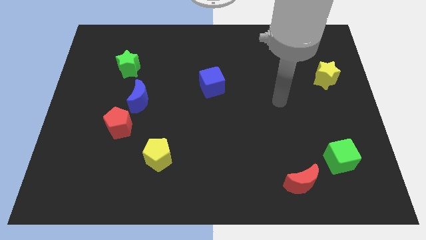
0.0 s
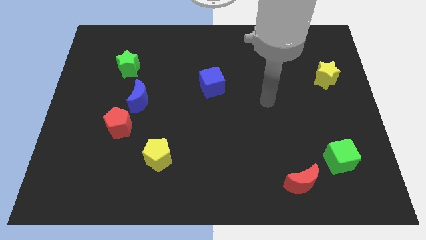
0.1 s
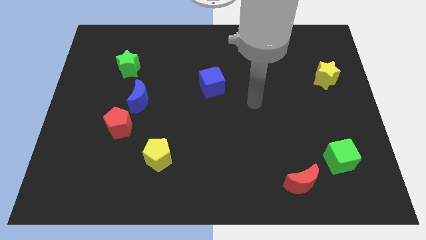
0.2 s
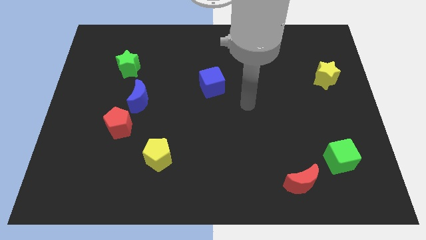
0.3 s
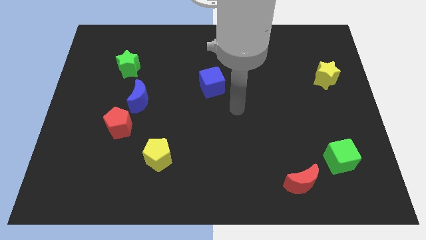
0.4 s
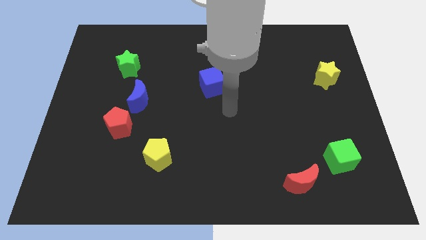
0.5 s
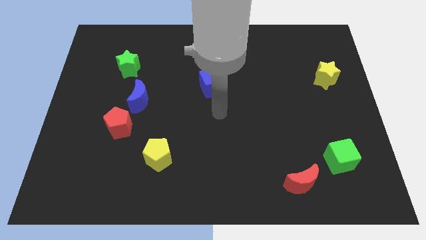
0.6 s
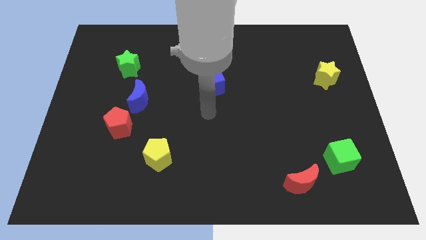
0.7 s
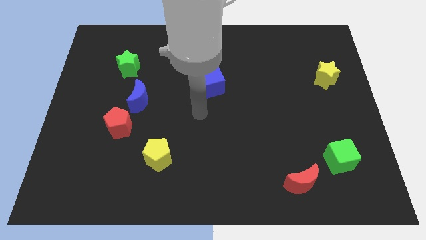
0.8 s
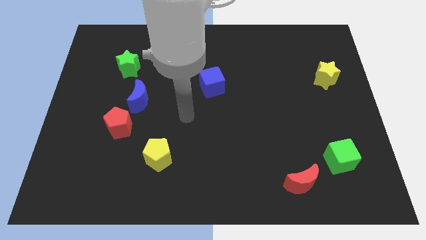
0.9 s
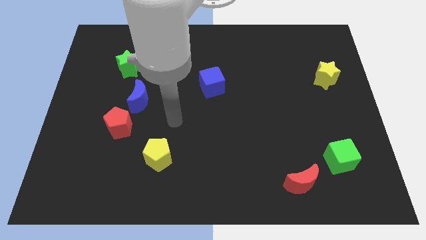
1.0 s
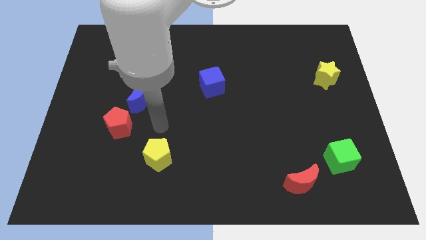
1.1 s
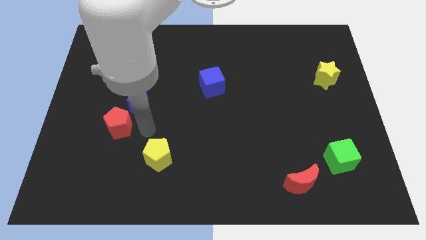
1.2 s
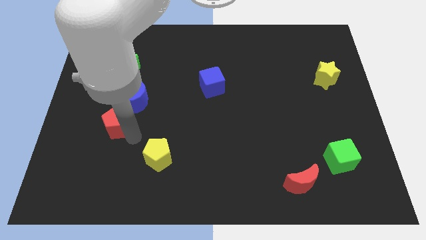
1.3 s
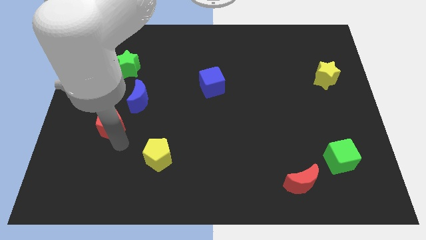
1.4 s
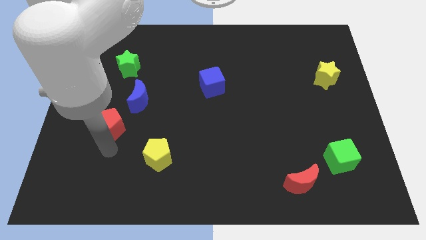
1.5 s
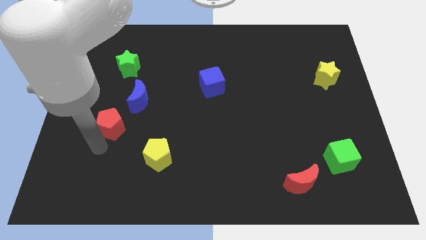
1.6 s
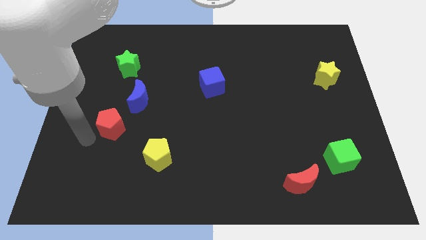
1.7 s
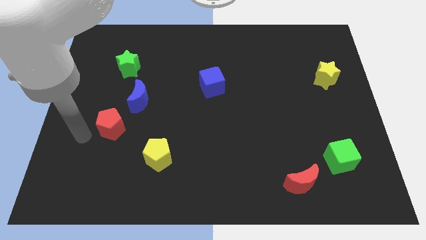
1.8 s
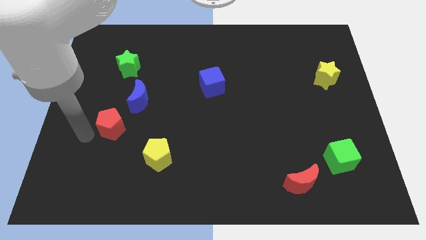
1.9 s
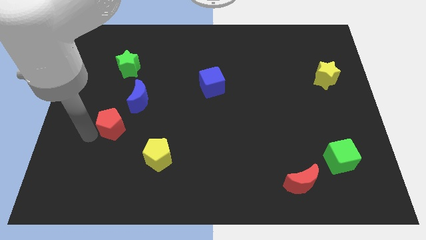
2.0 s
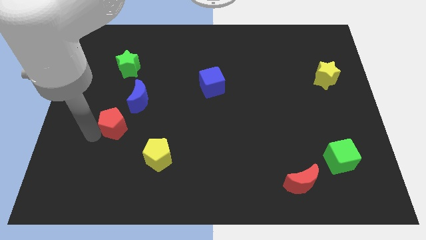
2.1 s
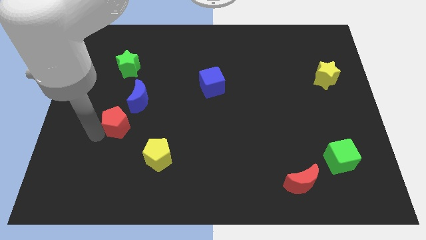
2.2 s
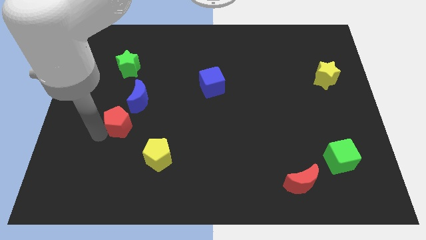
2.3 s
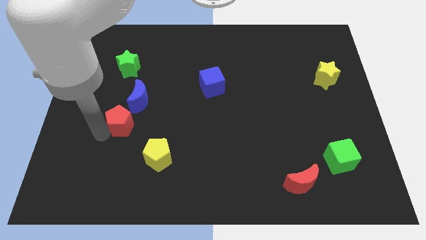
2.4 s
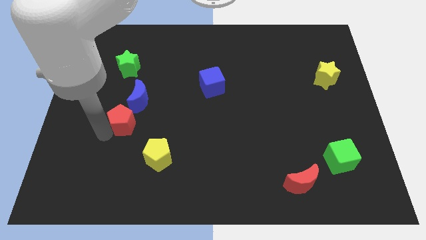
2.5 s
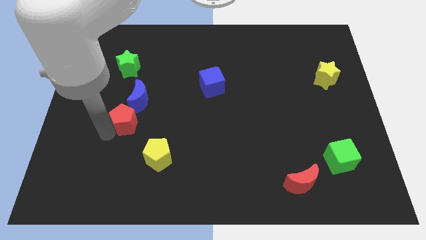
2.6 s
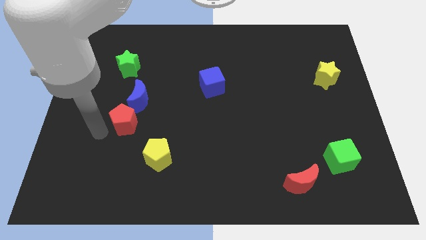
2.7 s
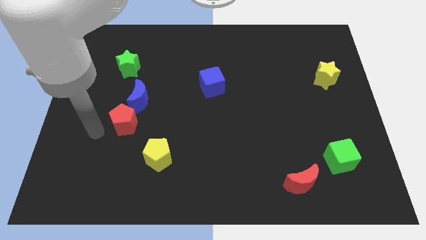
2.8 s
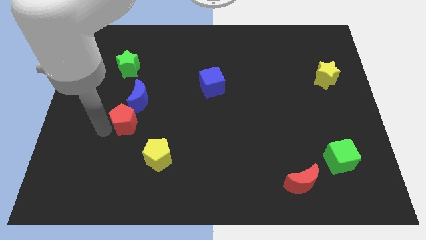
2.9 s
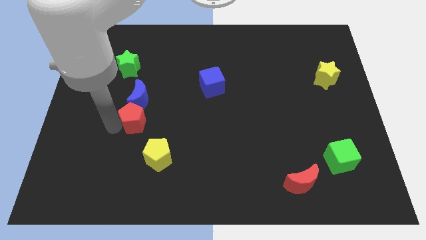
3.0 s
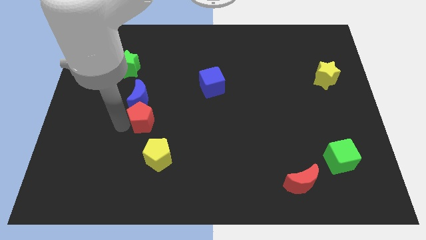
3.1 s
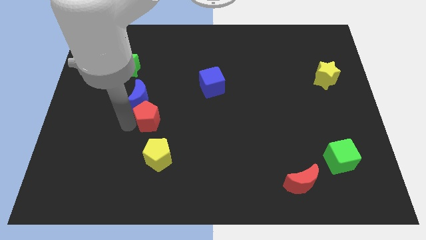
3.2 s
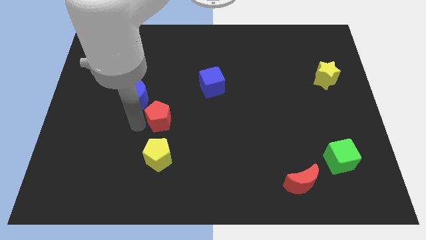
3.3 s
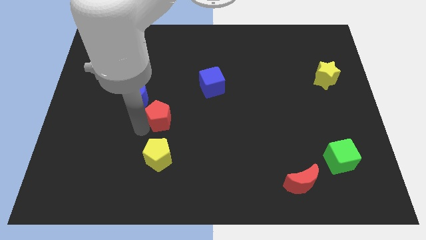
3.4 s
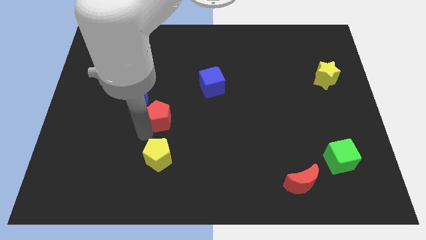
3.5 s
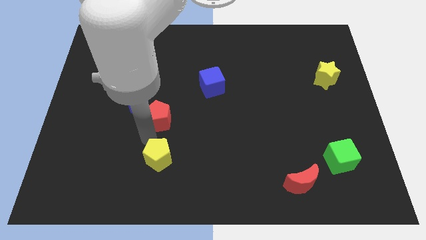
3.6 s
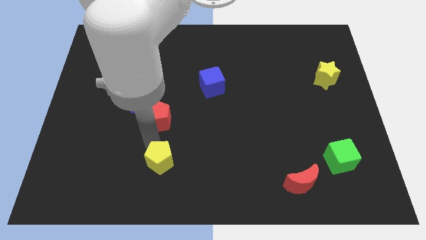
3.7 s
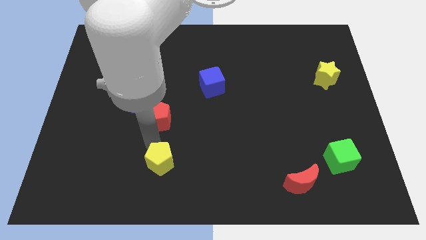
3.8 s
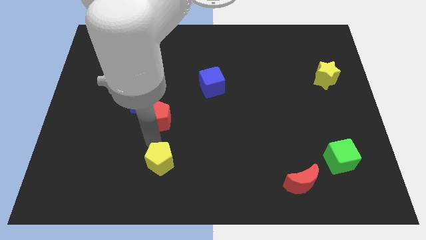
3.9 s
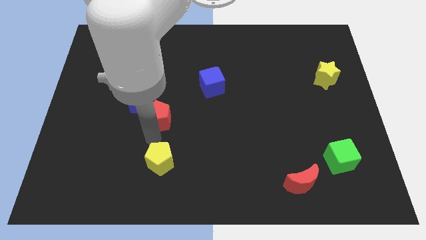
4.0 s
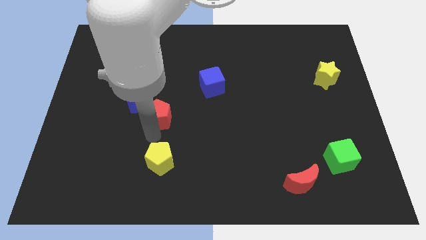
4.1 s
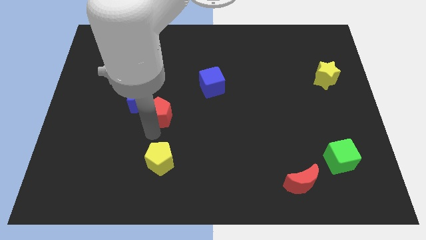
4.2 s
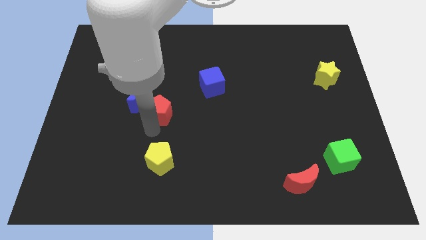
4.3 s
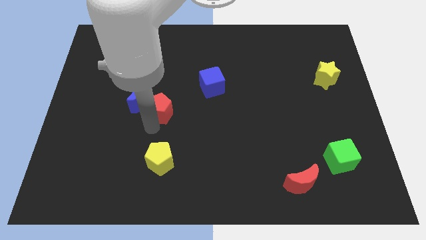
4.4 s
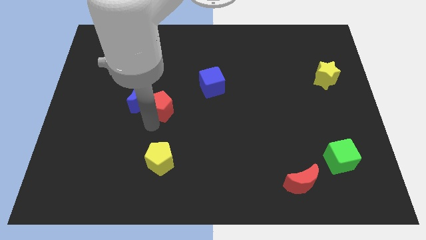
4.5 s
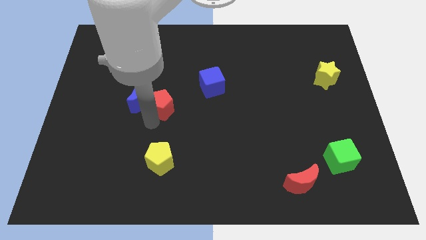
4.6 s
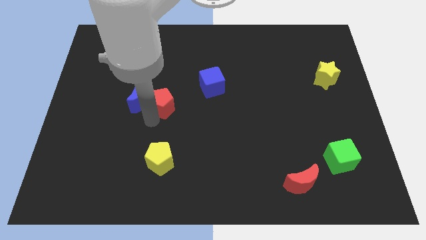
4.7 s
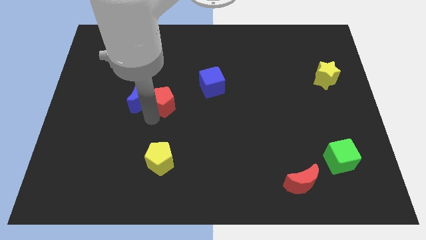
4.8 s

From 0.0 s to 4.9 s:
move the red pentagon to the top right side of the blue moon

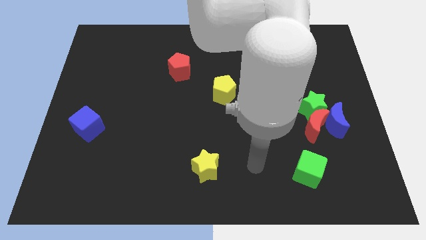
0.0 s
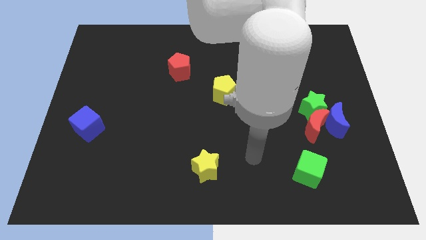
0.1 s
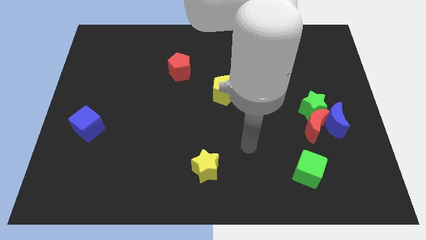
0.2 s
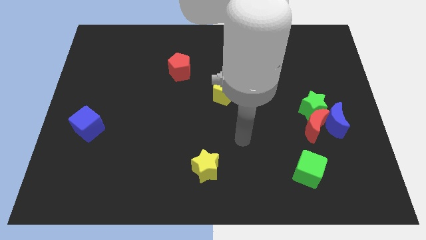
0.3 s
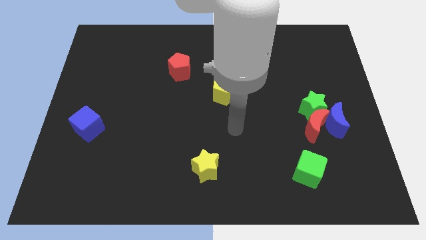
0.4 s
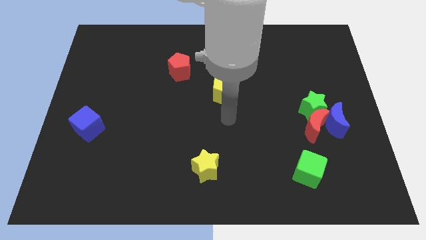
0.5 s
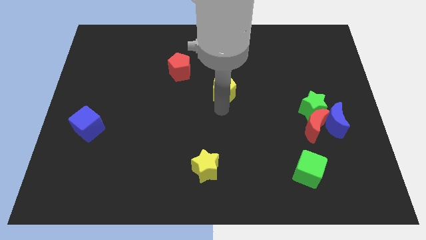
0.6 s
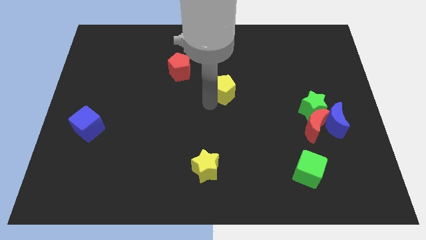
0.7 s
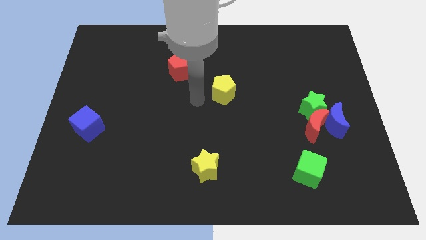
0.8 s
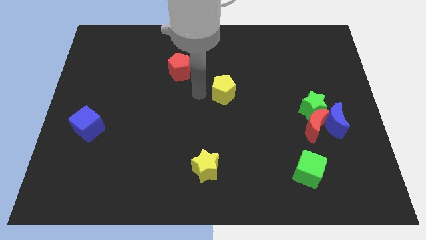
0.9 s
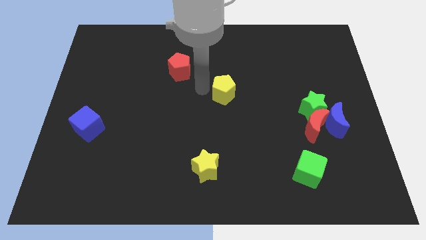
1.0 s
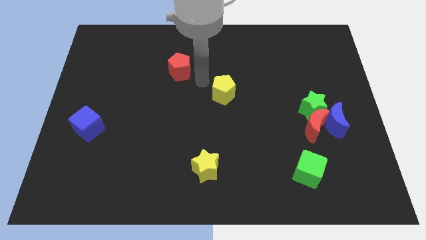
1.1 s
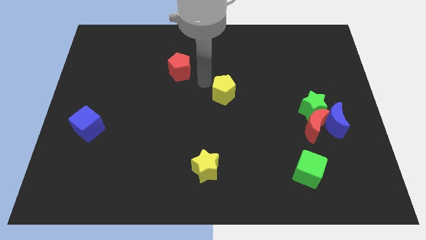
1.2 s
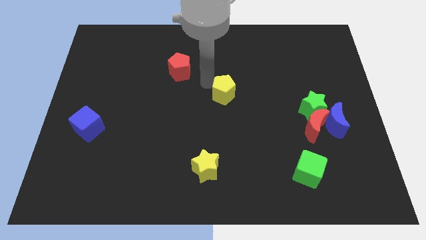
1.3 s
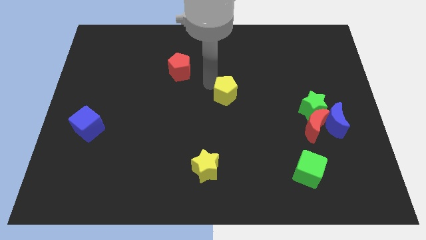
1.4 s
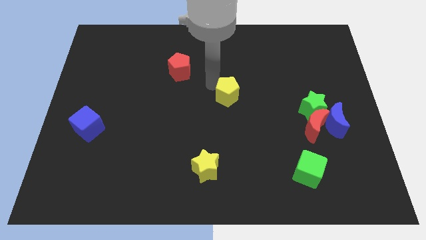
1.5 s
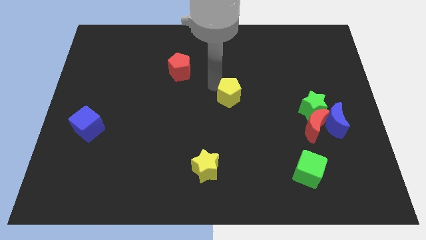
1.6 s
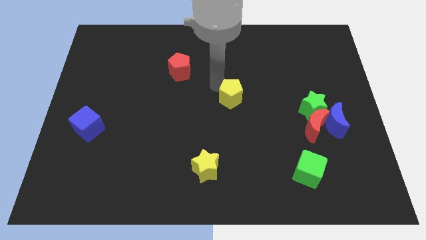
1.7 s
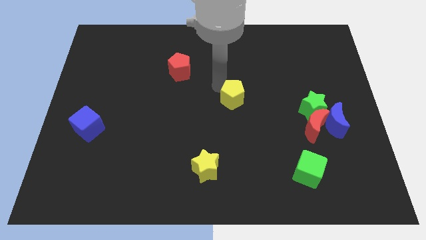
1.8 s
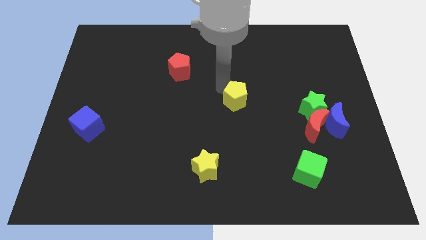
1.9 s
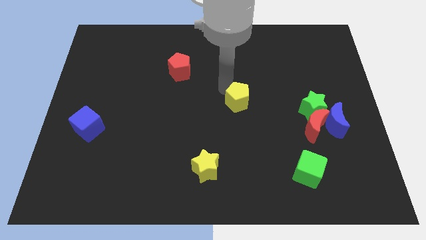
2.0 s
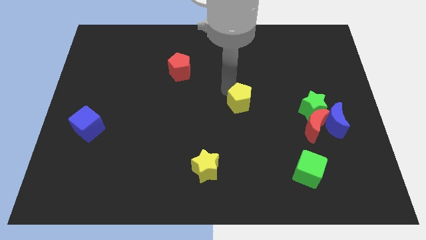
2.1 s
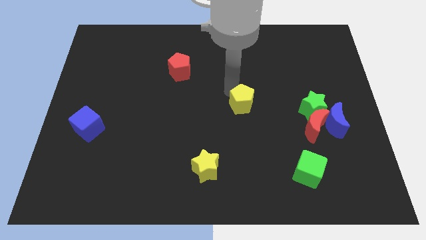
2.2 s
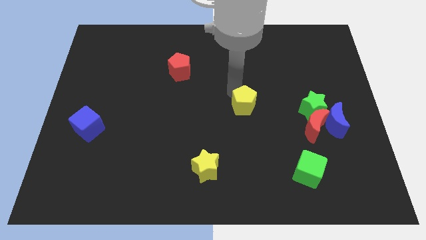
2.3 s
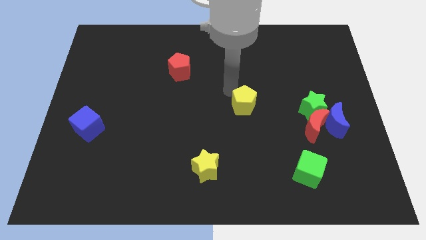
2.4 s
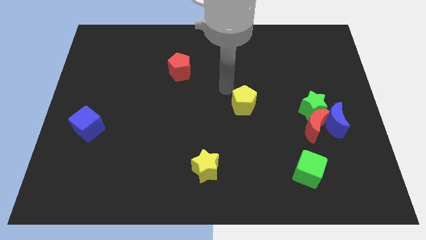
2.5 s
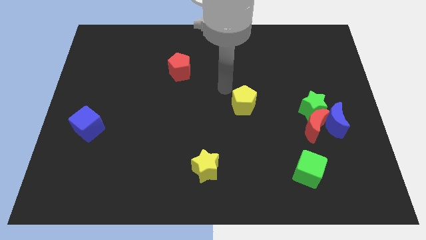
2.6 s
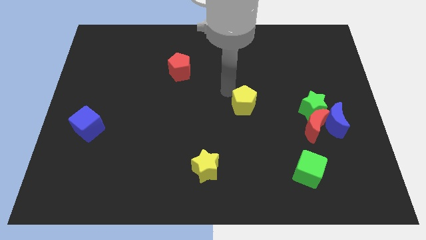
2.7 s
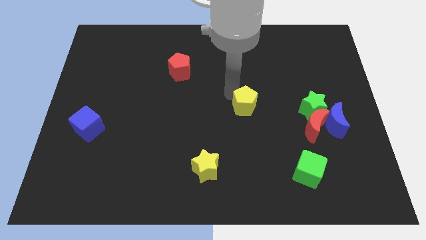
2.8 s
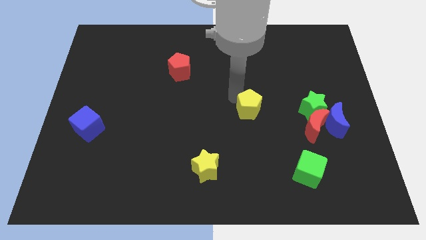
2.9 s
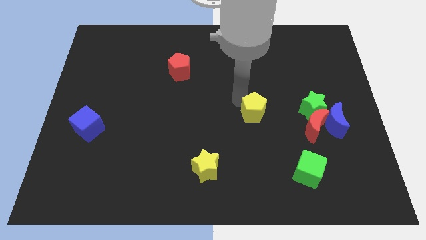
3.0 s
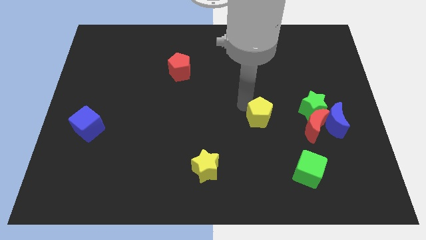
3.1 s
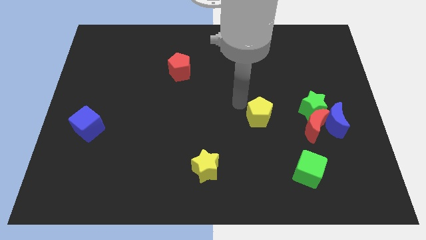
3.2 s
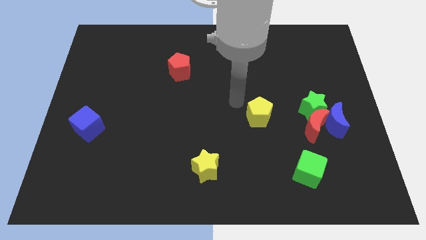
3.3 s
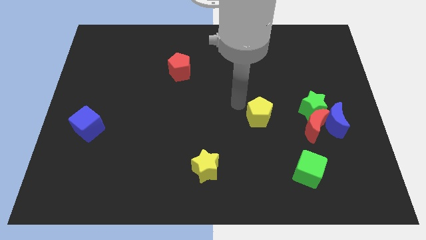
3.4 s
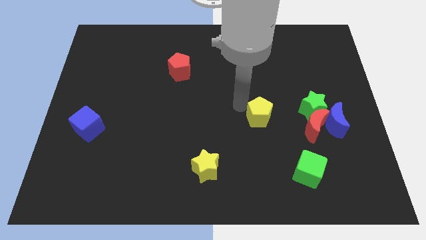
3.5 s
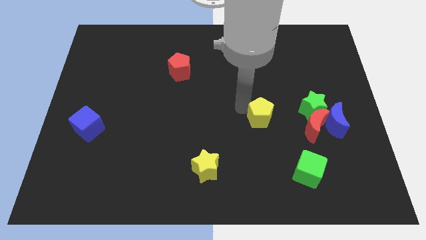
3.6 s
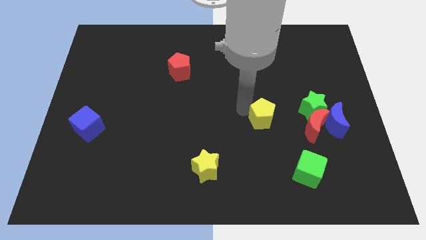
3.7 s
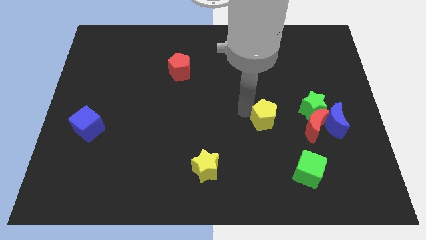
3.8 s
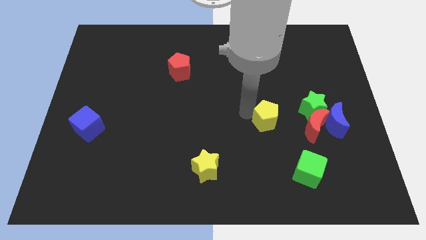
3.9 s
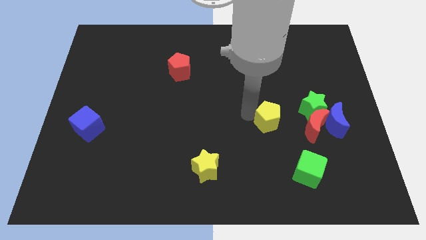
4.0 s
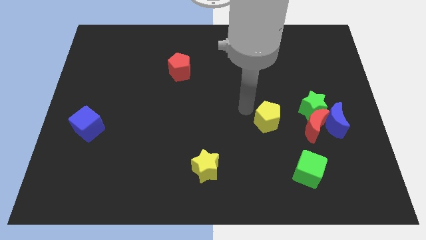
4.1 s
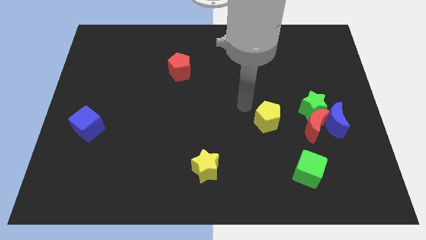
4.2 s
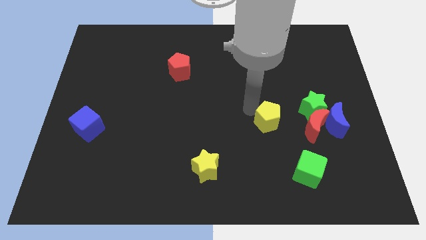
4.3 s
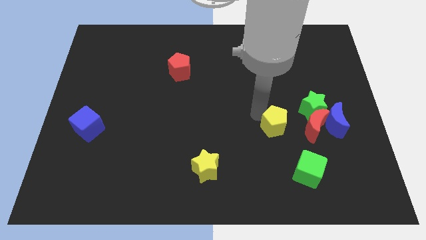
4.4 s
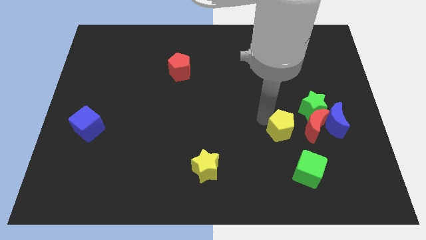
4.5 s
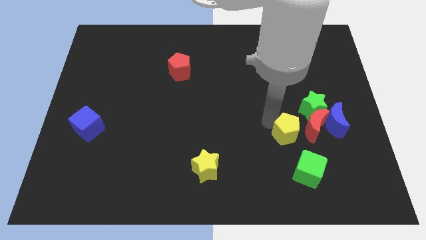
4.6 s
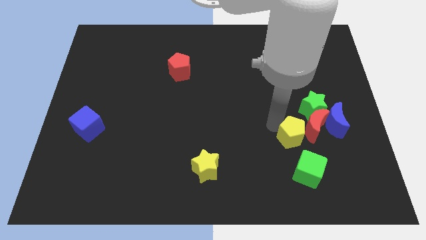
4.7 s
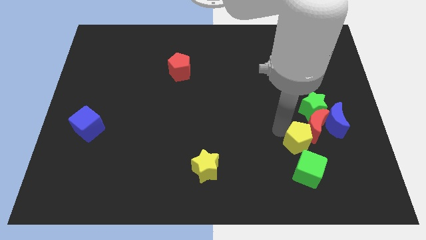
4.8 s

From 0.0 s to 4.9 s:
slide the yellow pentagon diagonally down and to the left of the blue moon
